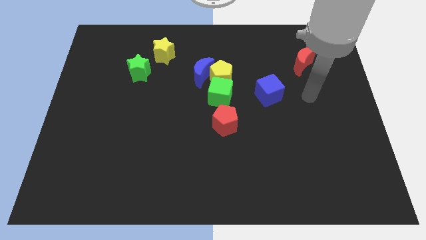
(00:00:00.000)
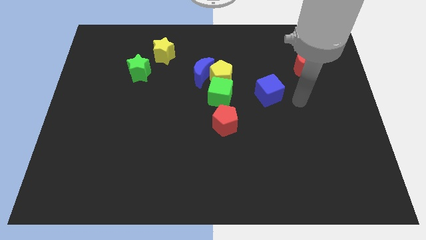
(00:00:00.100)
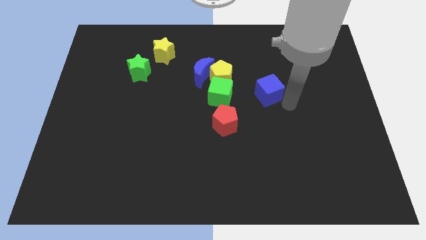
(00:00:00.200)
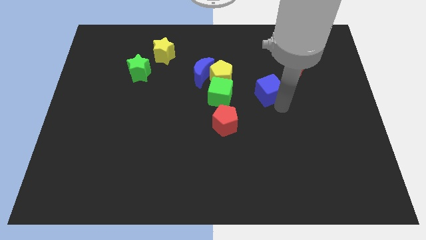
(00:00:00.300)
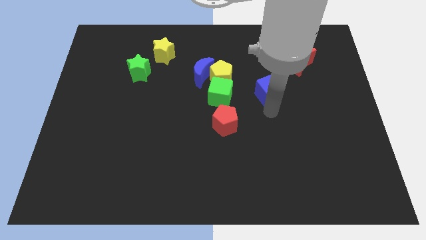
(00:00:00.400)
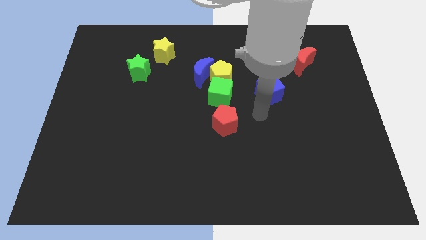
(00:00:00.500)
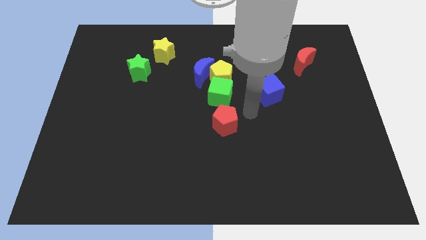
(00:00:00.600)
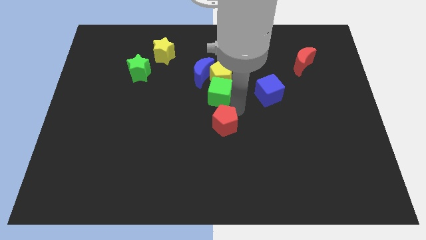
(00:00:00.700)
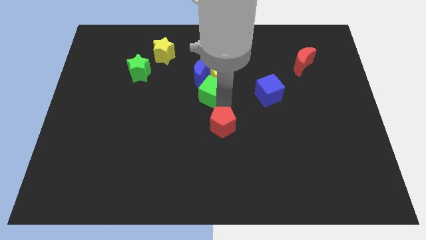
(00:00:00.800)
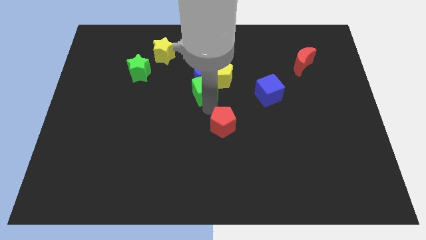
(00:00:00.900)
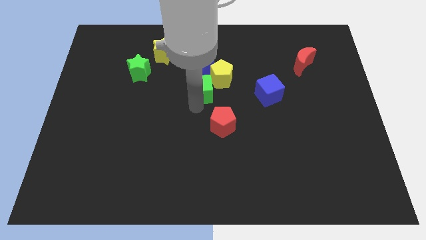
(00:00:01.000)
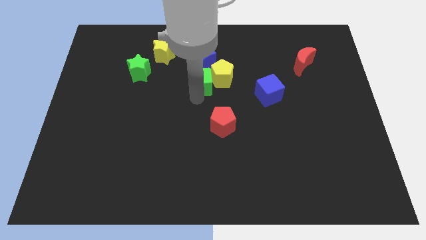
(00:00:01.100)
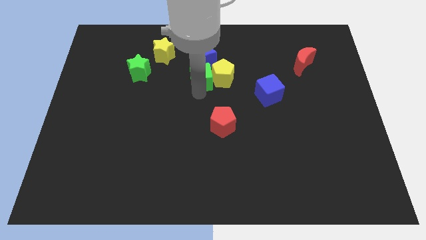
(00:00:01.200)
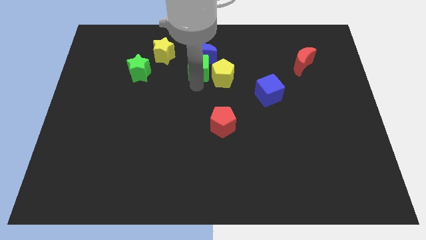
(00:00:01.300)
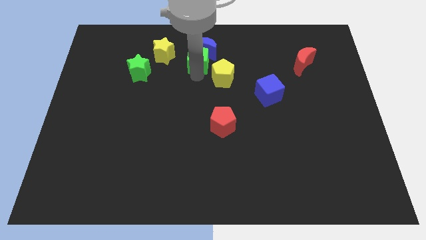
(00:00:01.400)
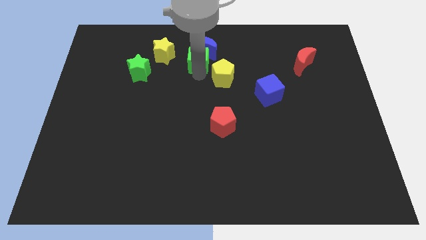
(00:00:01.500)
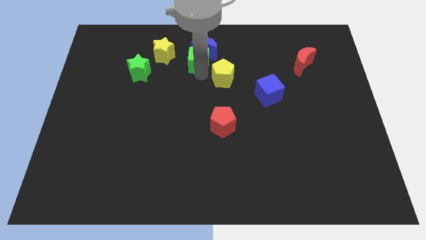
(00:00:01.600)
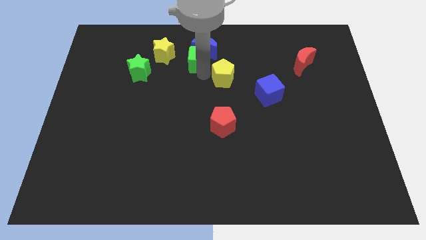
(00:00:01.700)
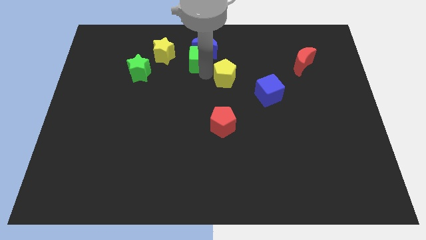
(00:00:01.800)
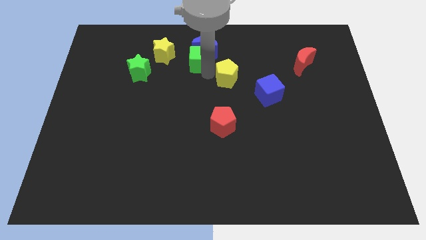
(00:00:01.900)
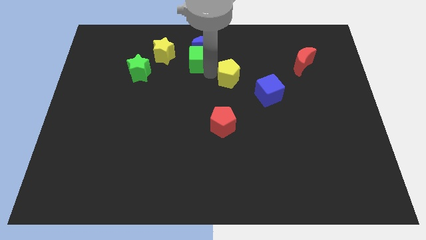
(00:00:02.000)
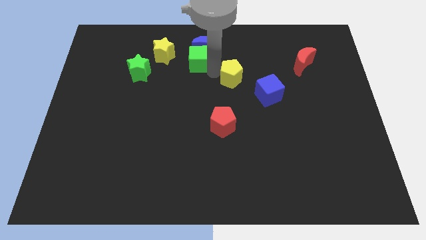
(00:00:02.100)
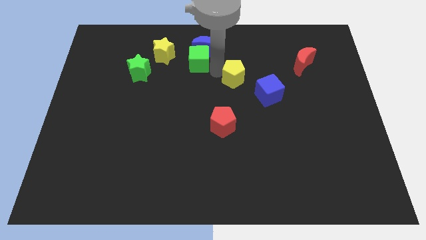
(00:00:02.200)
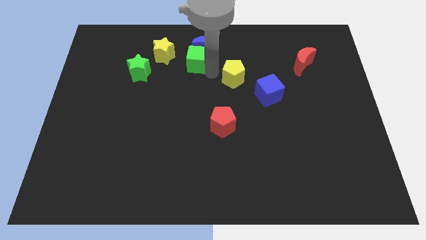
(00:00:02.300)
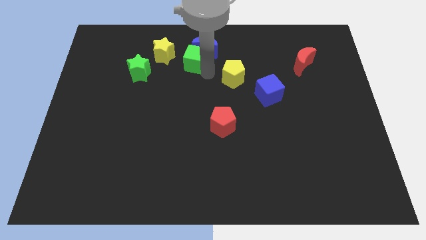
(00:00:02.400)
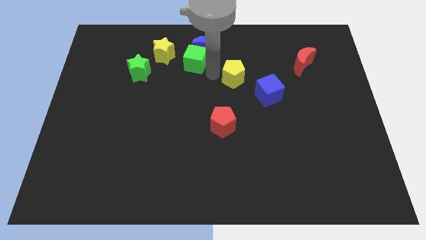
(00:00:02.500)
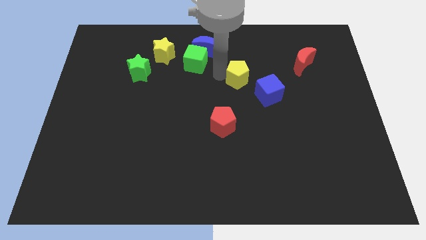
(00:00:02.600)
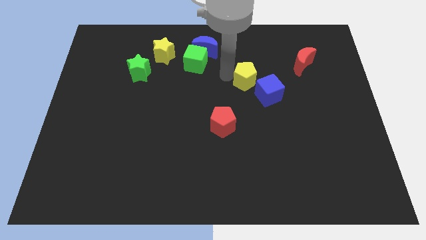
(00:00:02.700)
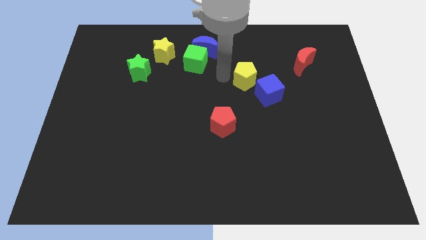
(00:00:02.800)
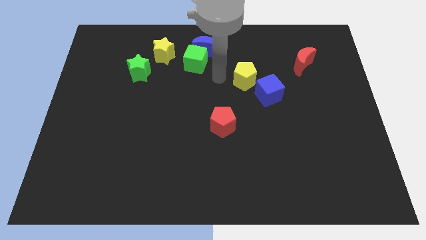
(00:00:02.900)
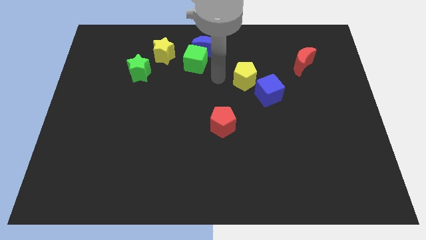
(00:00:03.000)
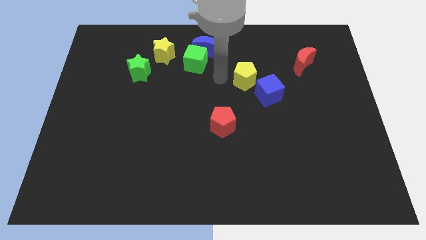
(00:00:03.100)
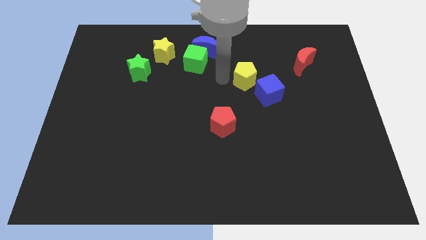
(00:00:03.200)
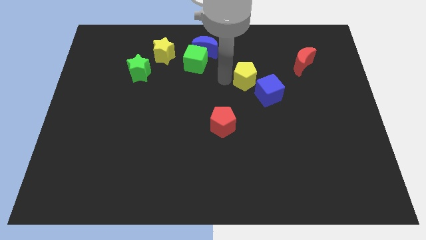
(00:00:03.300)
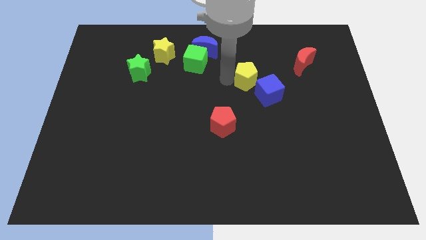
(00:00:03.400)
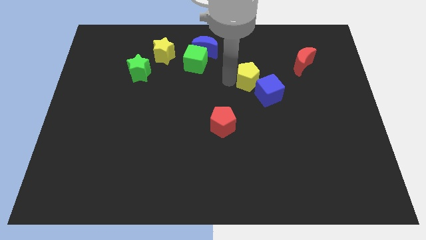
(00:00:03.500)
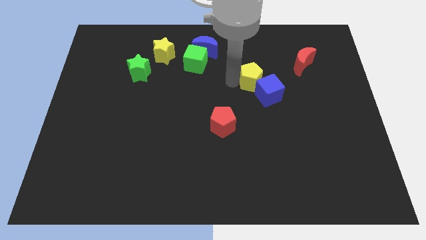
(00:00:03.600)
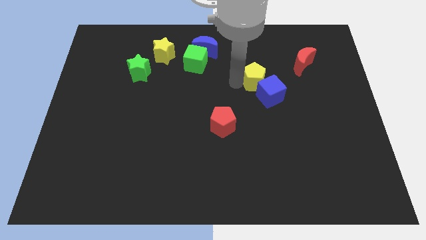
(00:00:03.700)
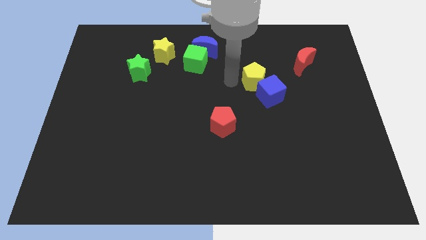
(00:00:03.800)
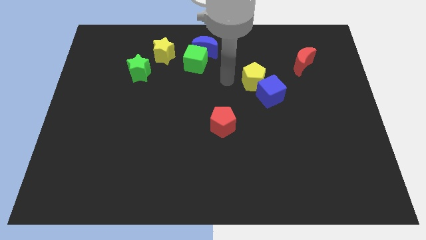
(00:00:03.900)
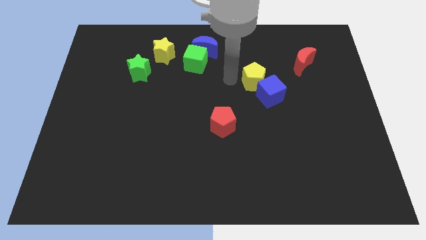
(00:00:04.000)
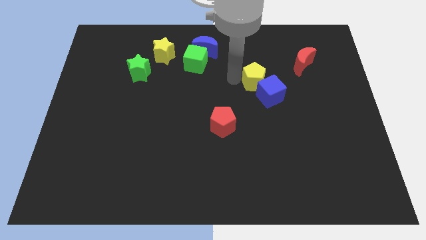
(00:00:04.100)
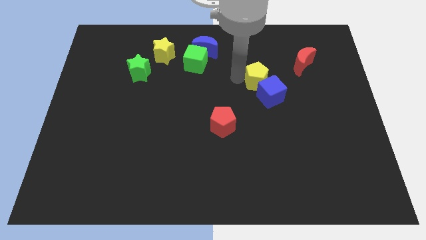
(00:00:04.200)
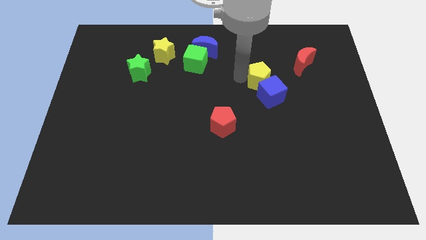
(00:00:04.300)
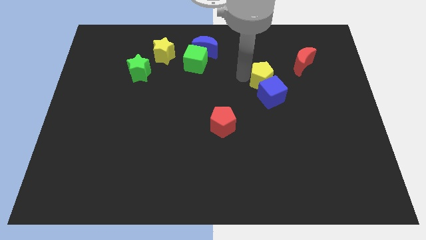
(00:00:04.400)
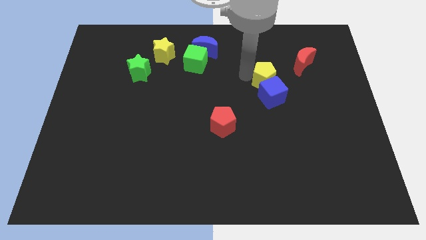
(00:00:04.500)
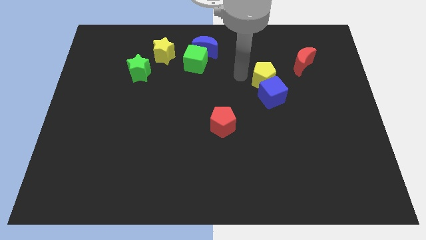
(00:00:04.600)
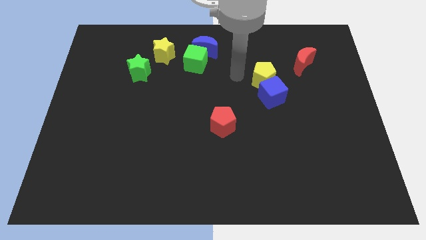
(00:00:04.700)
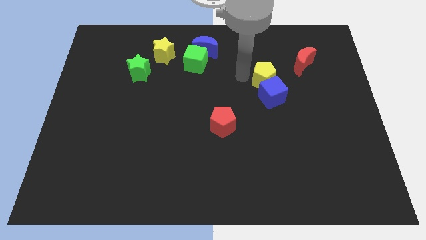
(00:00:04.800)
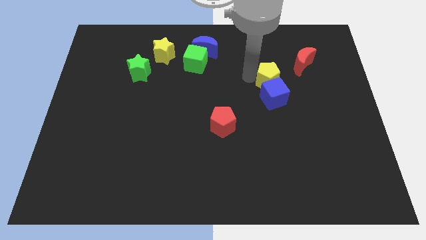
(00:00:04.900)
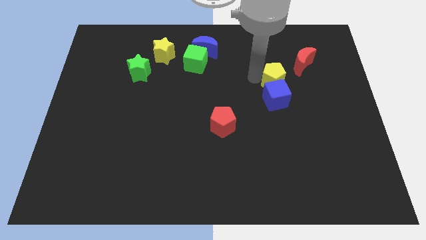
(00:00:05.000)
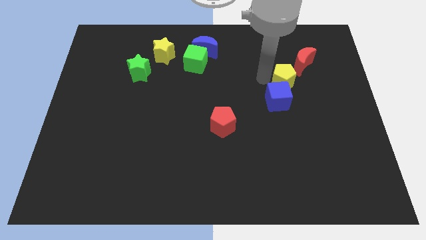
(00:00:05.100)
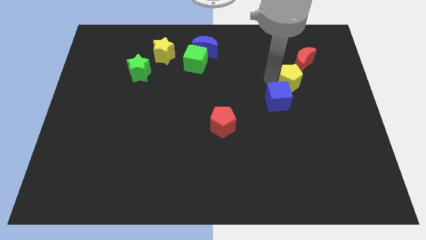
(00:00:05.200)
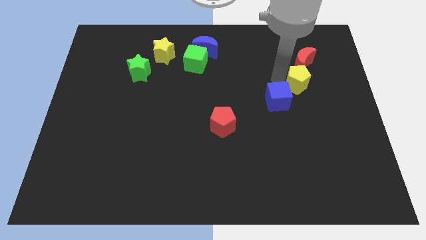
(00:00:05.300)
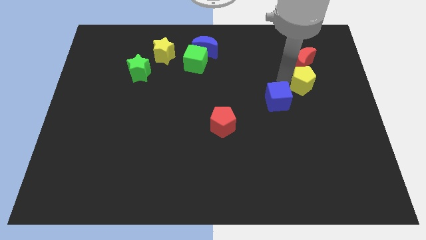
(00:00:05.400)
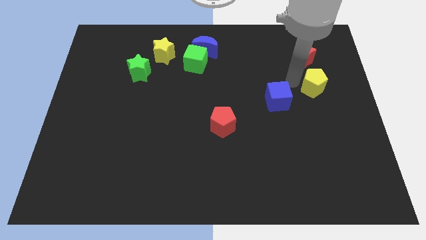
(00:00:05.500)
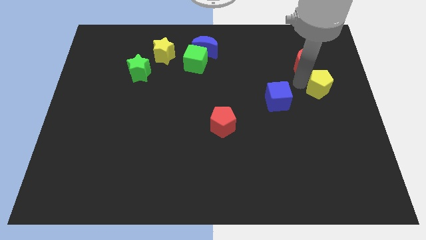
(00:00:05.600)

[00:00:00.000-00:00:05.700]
slide the yellow pentagon to the right side of the board

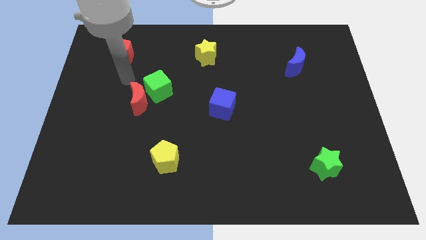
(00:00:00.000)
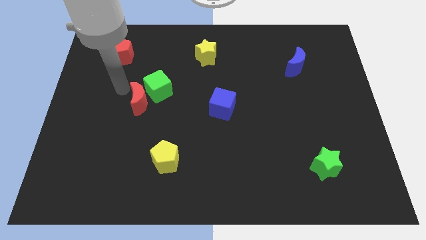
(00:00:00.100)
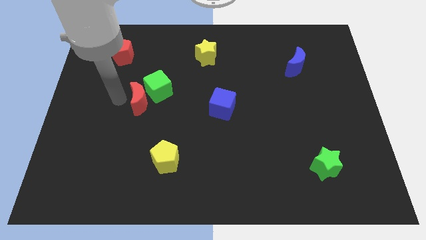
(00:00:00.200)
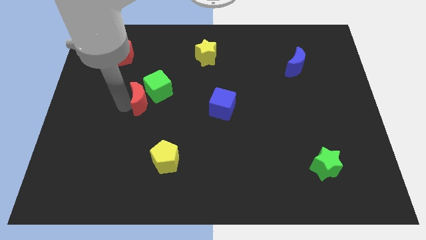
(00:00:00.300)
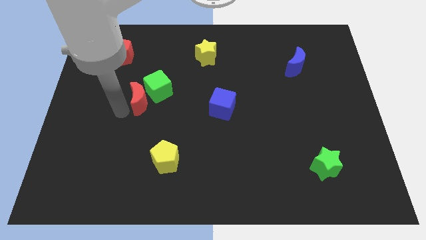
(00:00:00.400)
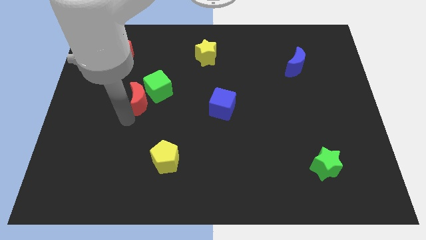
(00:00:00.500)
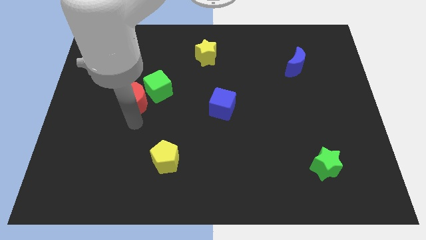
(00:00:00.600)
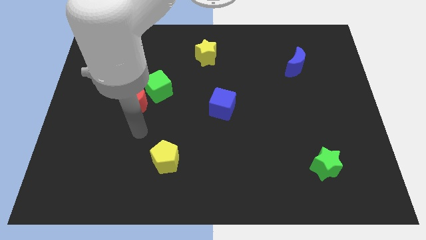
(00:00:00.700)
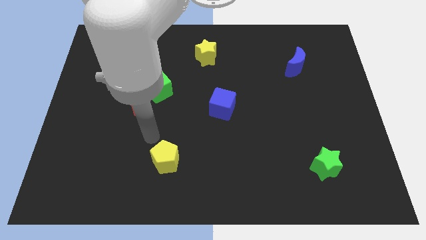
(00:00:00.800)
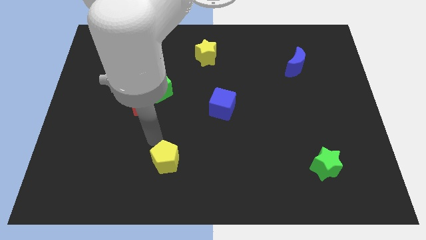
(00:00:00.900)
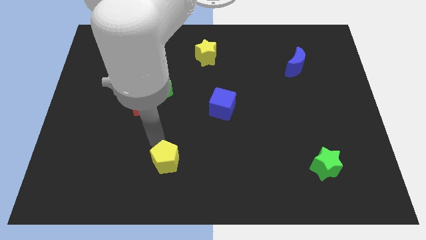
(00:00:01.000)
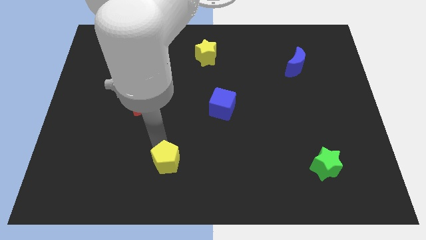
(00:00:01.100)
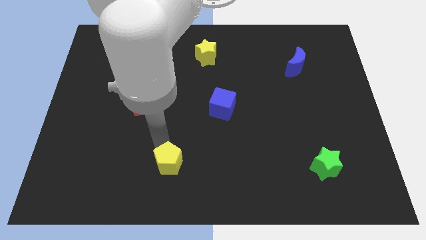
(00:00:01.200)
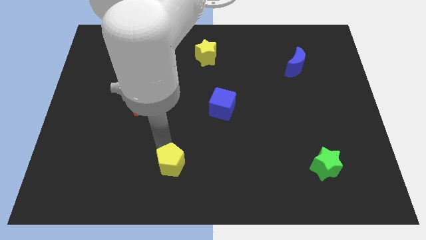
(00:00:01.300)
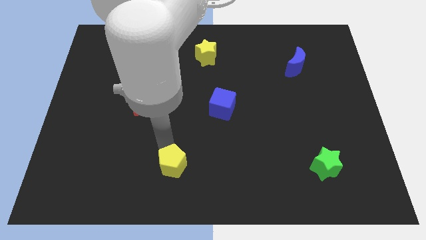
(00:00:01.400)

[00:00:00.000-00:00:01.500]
slide the yellow pentagon to the bottom

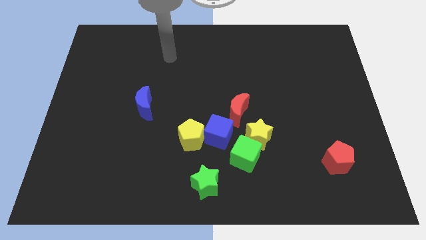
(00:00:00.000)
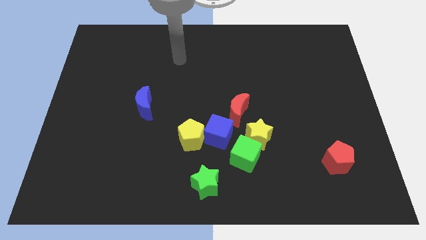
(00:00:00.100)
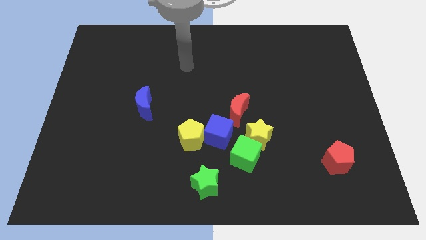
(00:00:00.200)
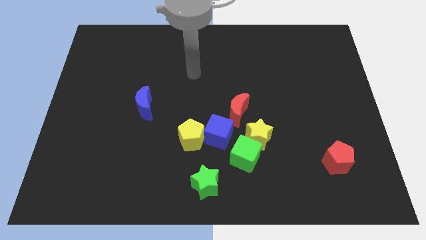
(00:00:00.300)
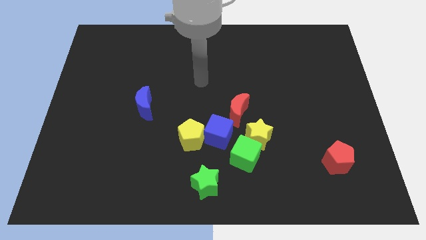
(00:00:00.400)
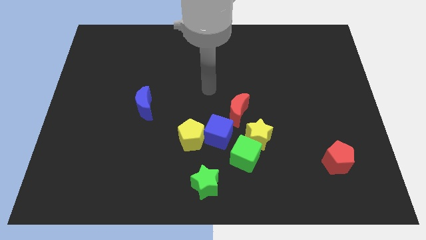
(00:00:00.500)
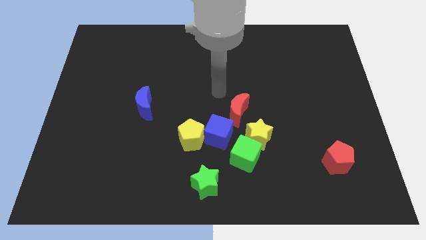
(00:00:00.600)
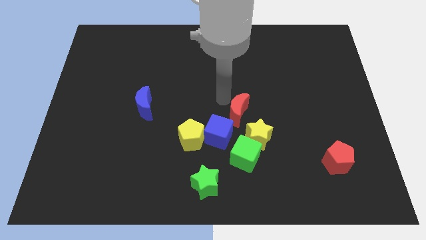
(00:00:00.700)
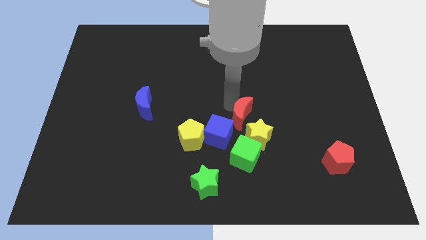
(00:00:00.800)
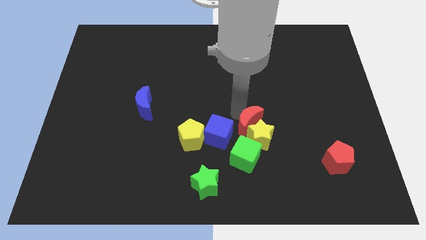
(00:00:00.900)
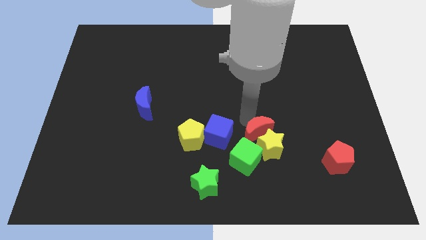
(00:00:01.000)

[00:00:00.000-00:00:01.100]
slide the green cube to the bottom side
